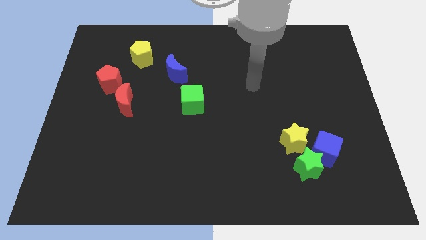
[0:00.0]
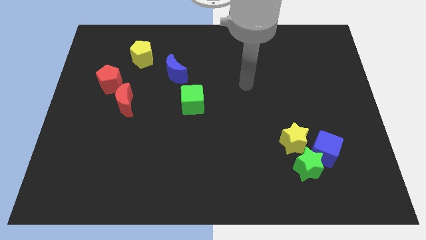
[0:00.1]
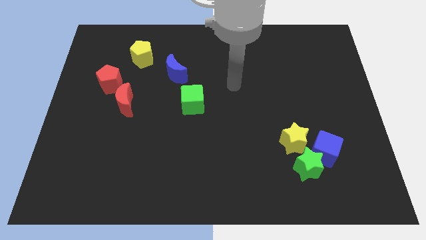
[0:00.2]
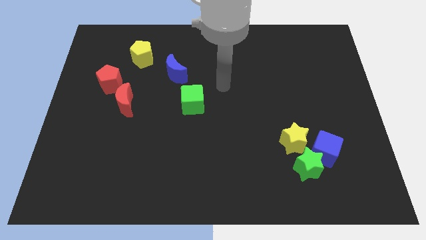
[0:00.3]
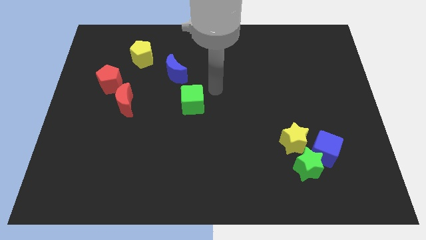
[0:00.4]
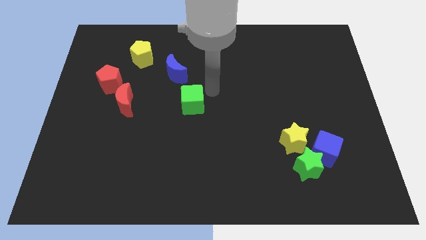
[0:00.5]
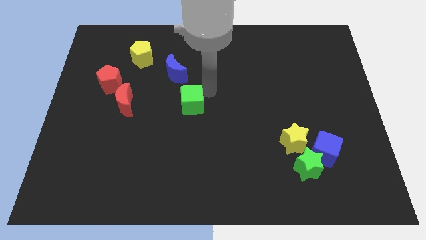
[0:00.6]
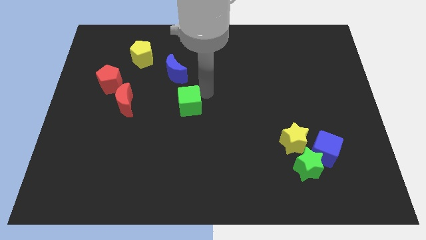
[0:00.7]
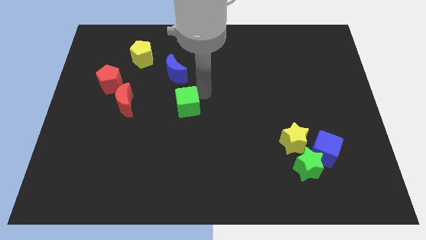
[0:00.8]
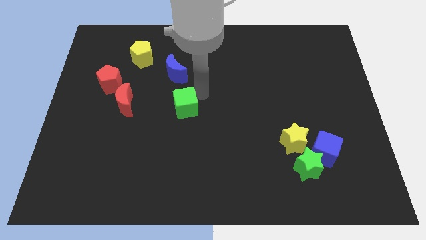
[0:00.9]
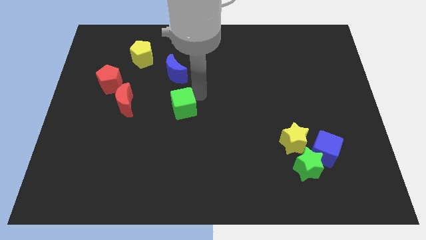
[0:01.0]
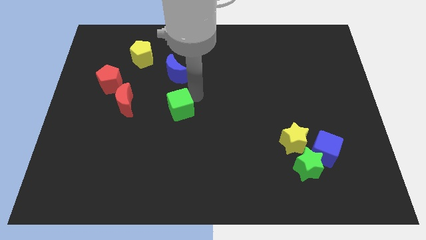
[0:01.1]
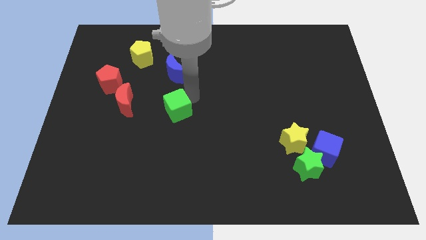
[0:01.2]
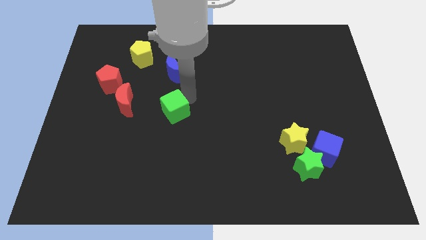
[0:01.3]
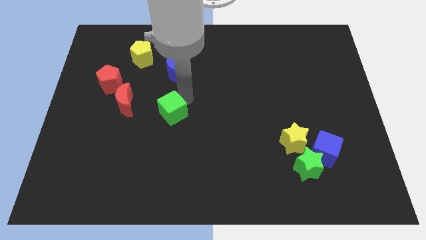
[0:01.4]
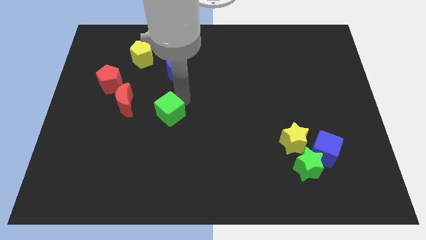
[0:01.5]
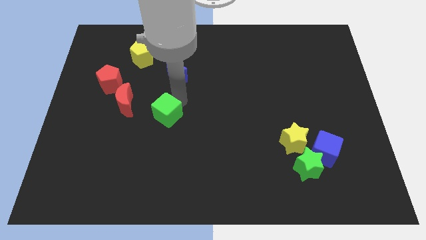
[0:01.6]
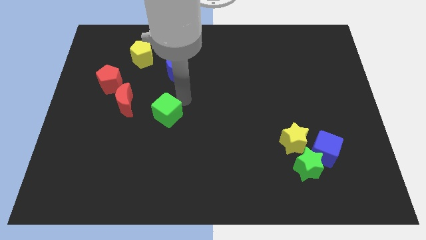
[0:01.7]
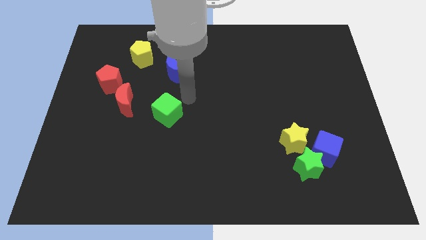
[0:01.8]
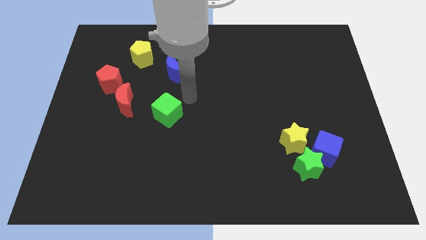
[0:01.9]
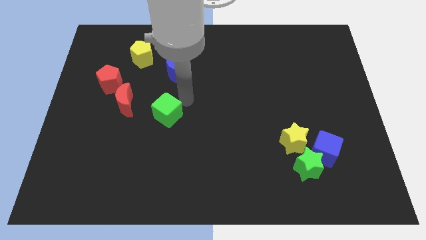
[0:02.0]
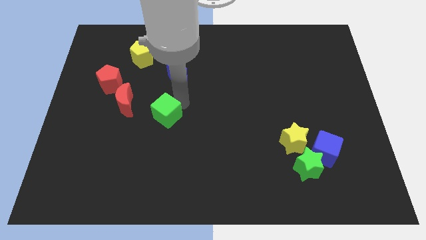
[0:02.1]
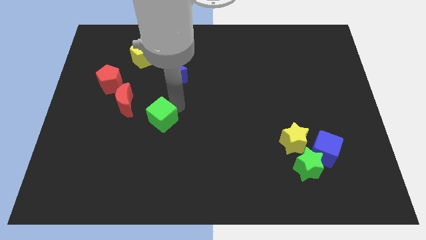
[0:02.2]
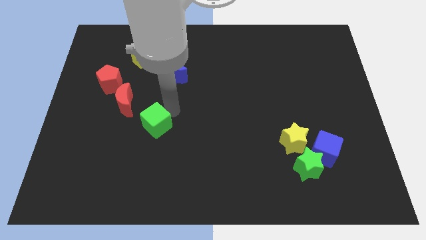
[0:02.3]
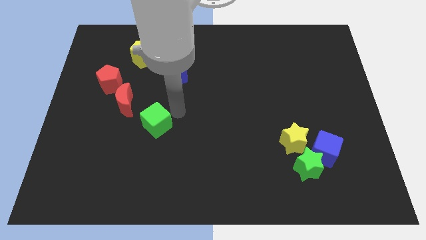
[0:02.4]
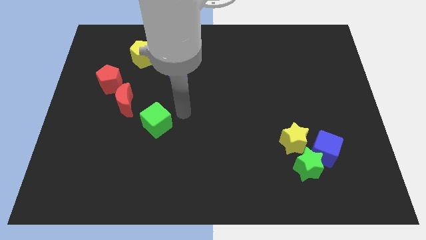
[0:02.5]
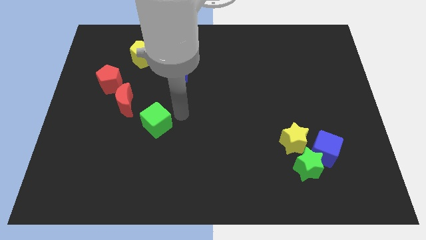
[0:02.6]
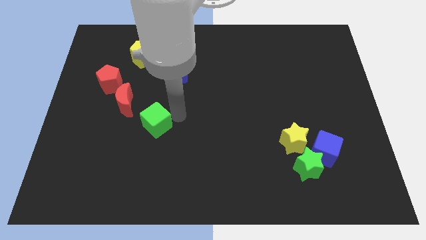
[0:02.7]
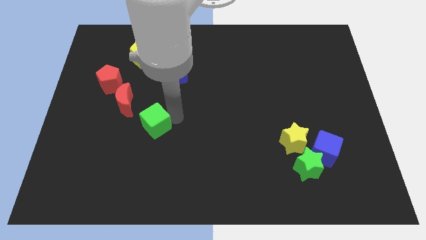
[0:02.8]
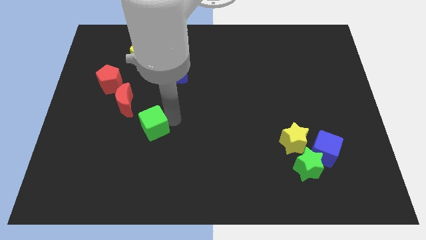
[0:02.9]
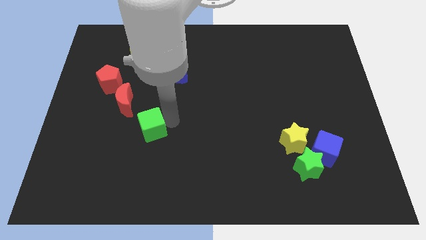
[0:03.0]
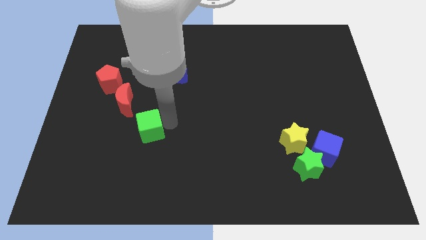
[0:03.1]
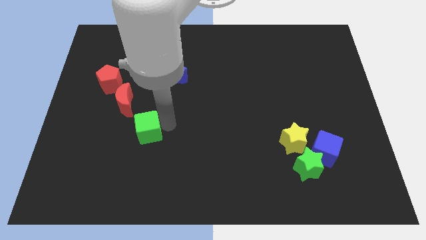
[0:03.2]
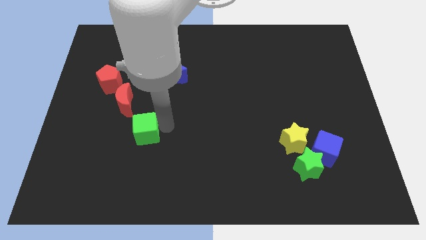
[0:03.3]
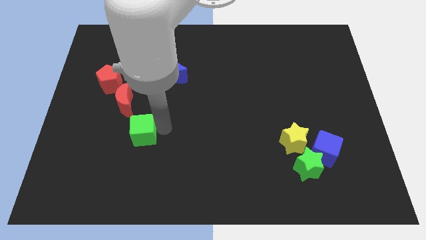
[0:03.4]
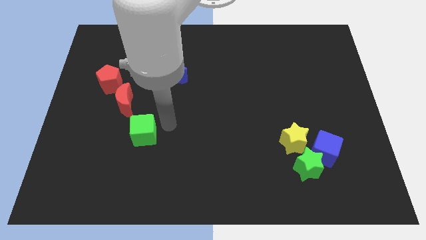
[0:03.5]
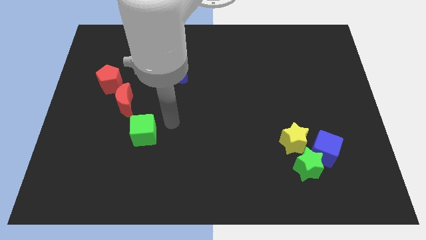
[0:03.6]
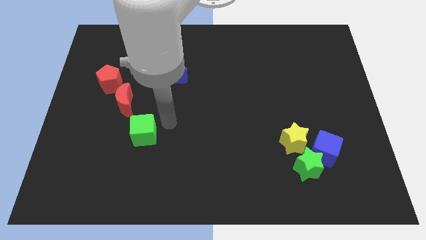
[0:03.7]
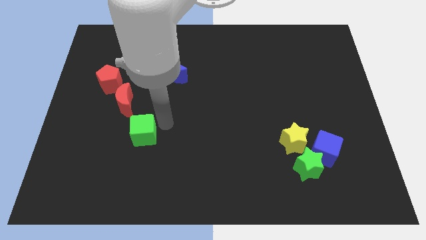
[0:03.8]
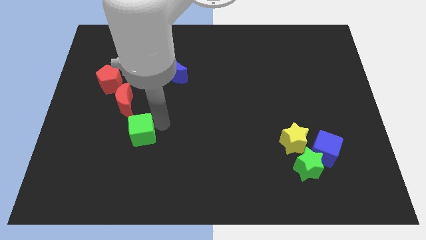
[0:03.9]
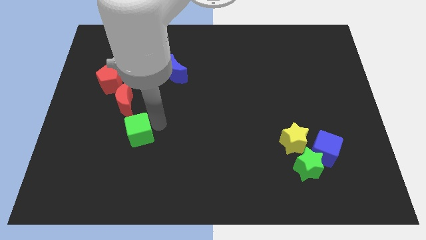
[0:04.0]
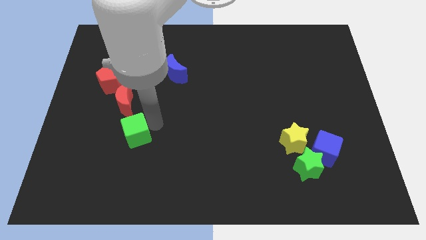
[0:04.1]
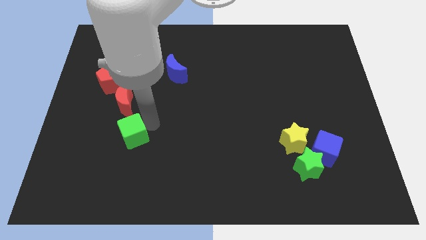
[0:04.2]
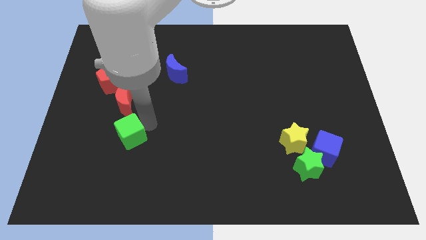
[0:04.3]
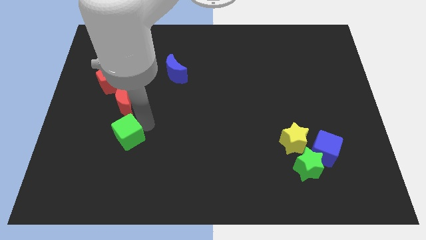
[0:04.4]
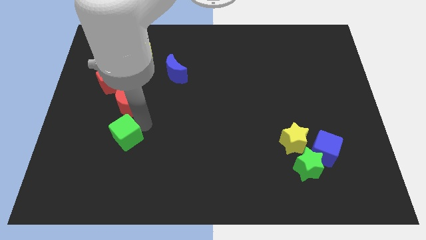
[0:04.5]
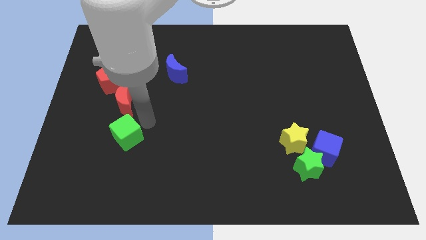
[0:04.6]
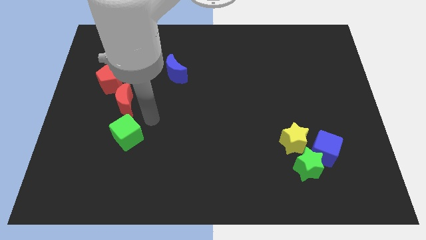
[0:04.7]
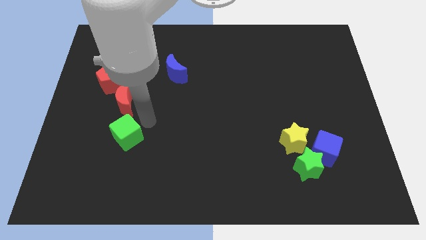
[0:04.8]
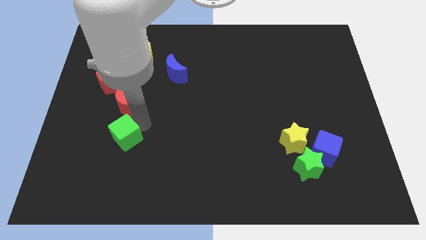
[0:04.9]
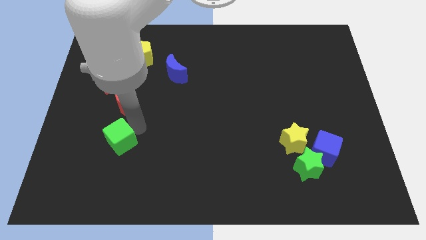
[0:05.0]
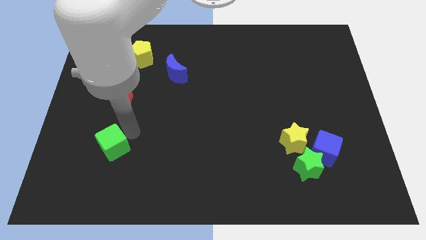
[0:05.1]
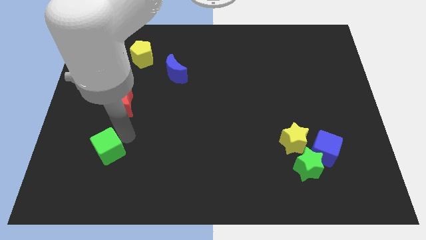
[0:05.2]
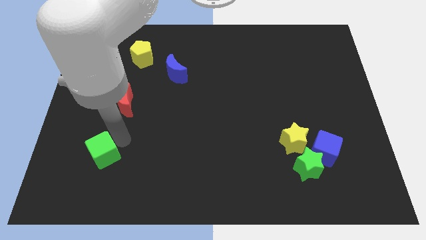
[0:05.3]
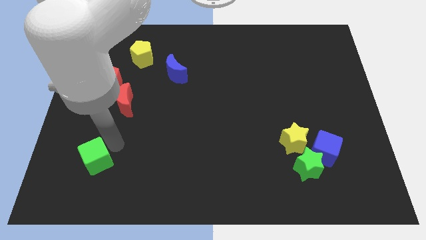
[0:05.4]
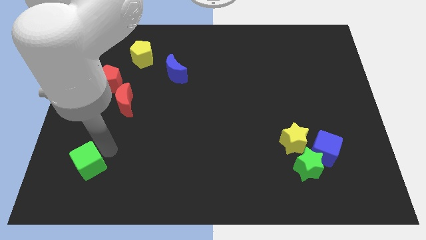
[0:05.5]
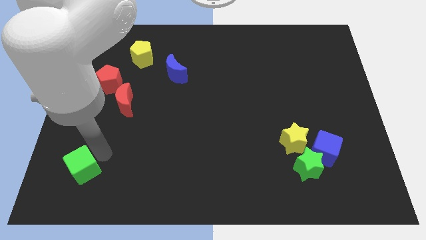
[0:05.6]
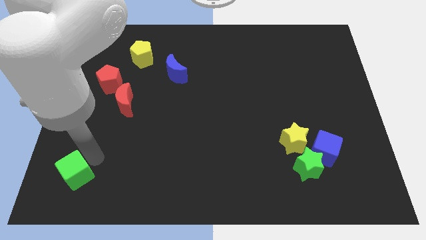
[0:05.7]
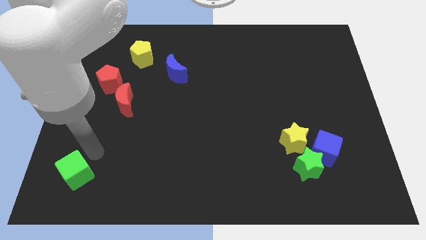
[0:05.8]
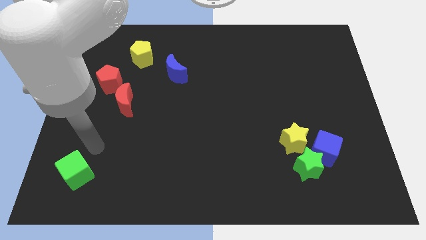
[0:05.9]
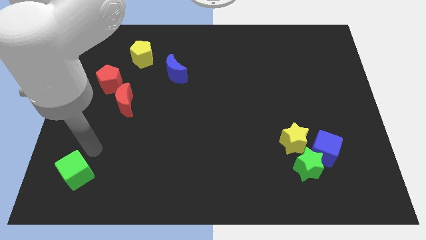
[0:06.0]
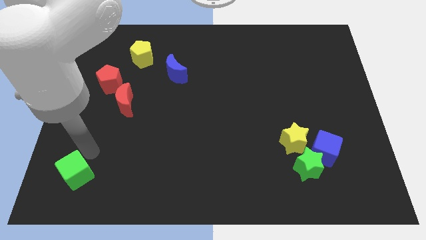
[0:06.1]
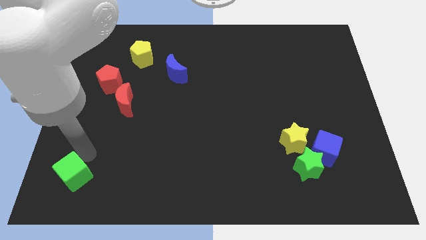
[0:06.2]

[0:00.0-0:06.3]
push the green cube to the bottom left

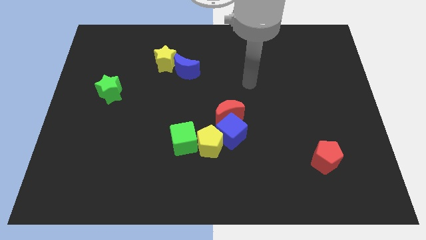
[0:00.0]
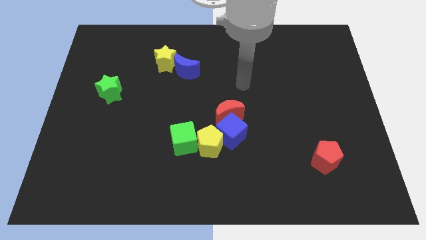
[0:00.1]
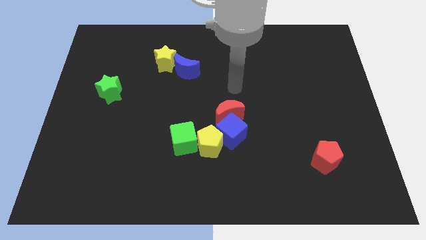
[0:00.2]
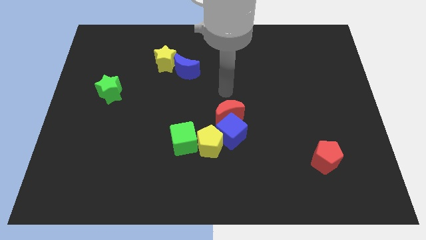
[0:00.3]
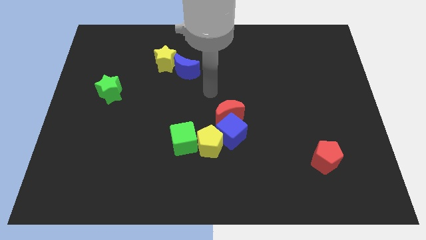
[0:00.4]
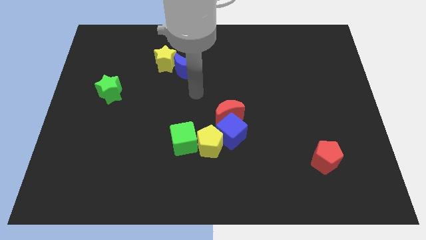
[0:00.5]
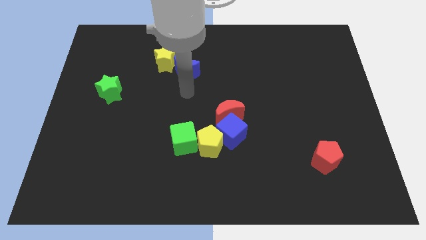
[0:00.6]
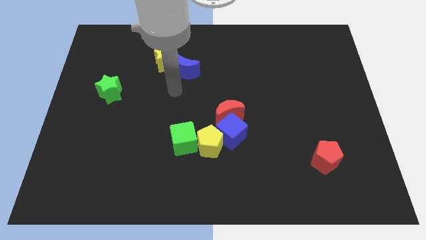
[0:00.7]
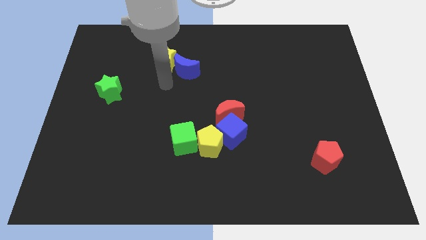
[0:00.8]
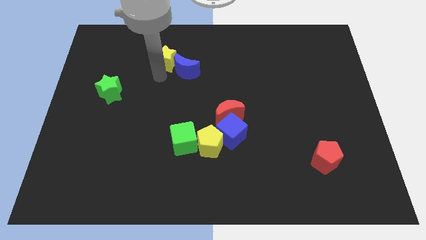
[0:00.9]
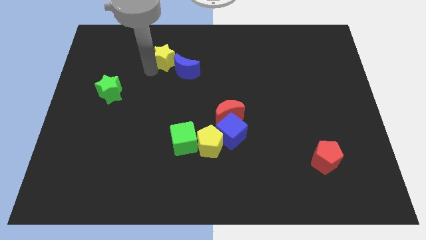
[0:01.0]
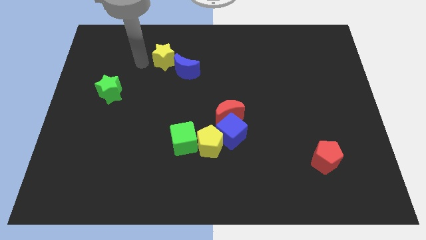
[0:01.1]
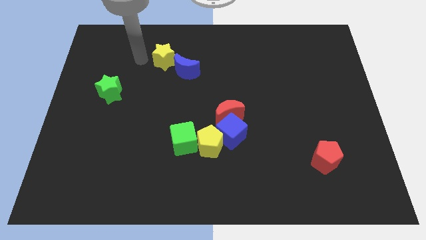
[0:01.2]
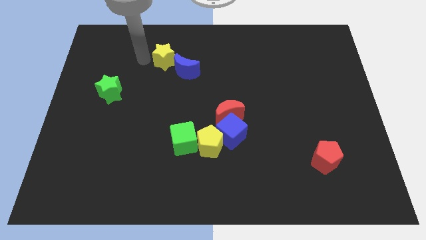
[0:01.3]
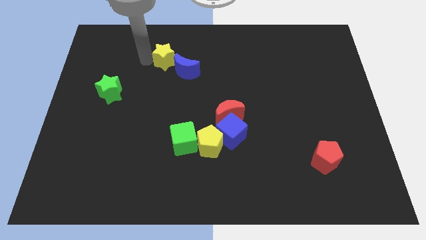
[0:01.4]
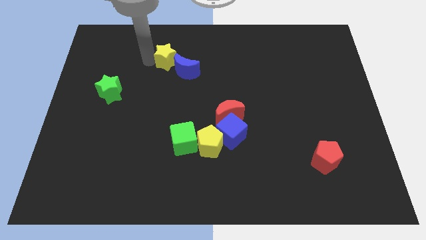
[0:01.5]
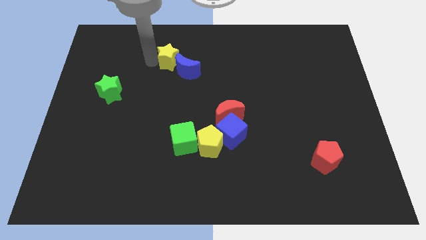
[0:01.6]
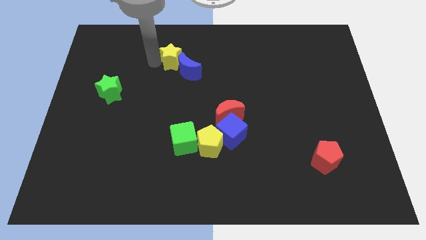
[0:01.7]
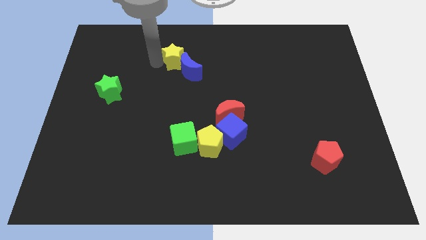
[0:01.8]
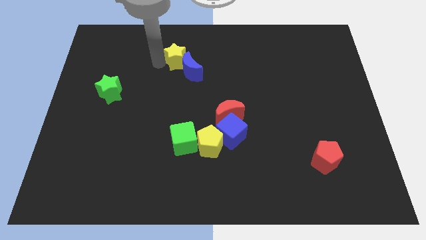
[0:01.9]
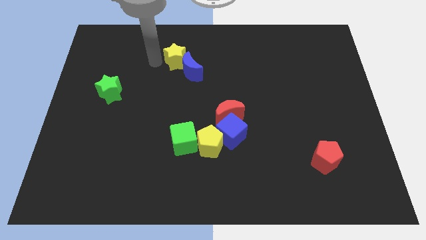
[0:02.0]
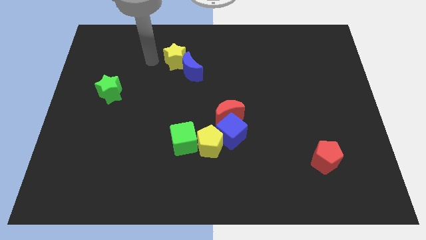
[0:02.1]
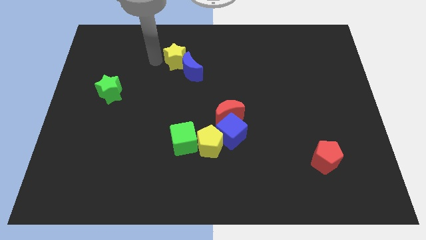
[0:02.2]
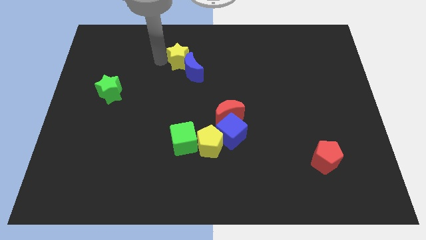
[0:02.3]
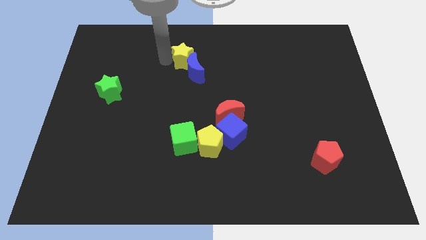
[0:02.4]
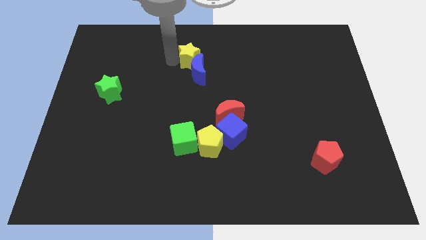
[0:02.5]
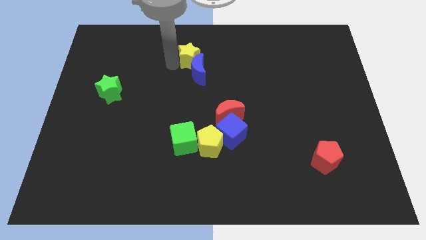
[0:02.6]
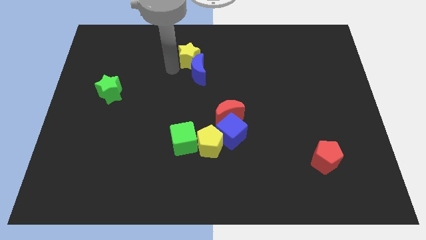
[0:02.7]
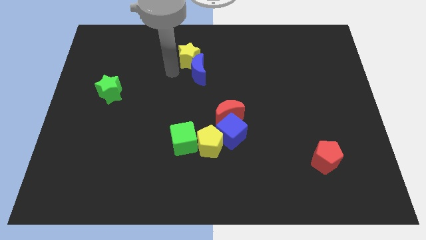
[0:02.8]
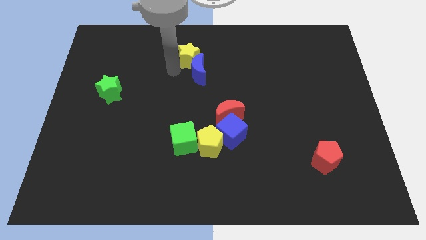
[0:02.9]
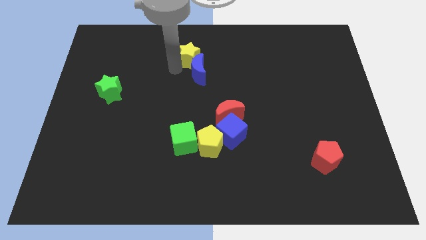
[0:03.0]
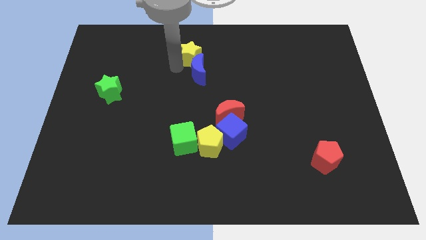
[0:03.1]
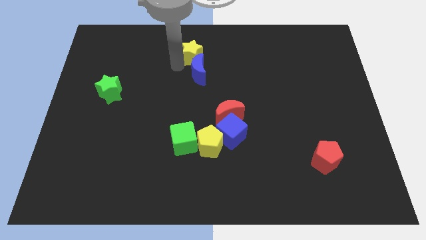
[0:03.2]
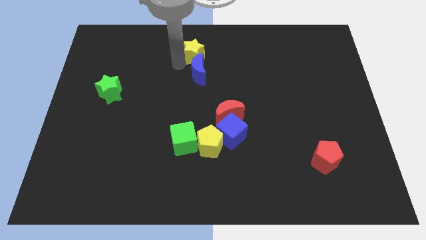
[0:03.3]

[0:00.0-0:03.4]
push the yellow star to the top side
